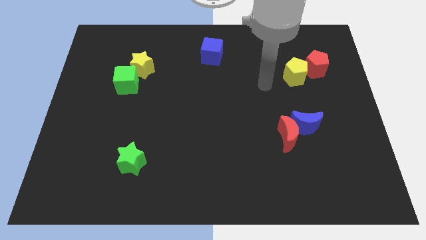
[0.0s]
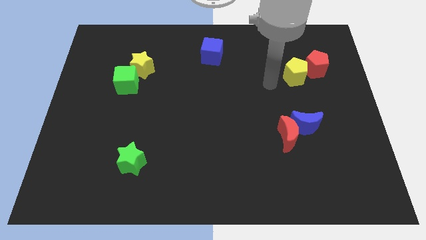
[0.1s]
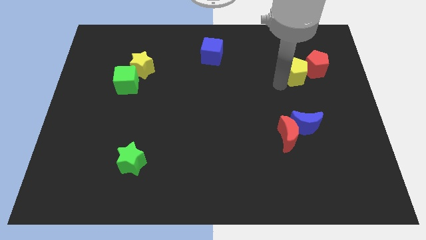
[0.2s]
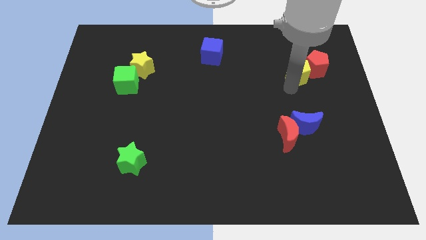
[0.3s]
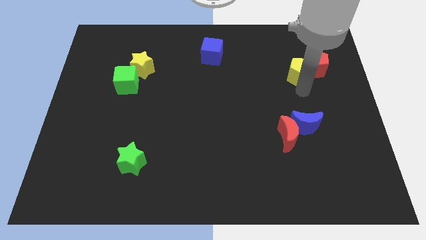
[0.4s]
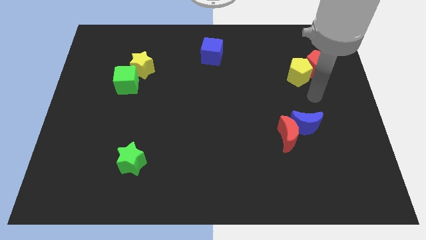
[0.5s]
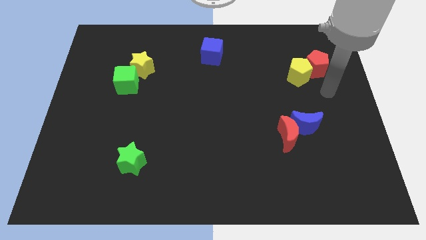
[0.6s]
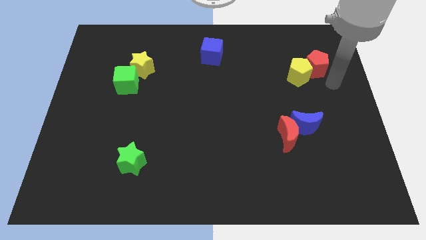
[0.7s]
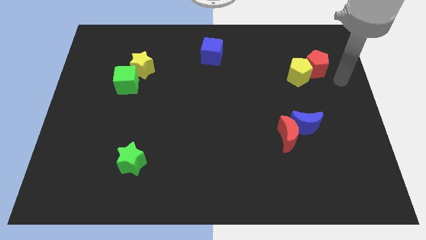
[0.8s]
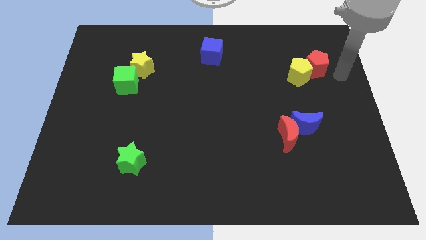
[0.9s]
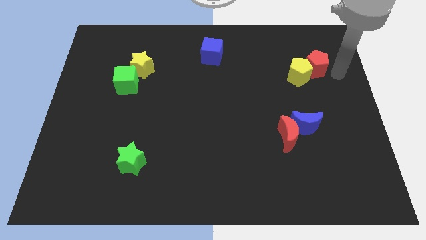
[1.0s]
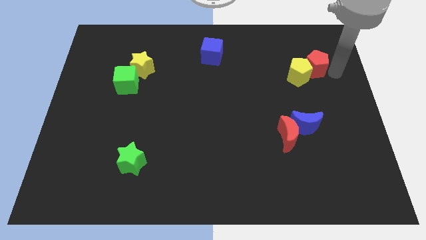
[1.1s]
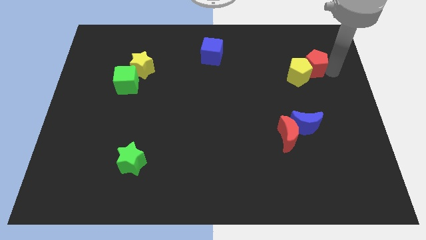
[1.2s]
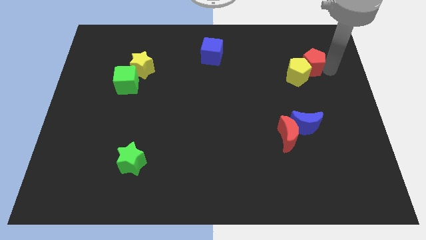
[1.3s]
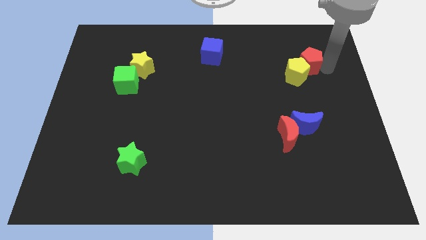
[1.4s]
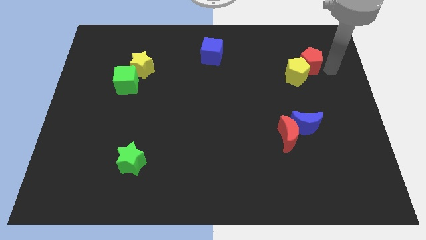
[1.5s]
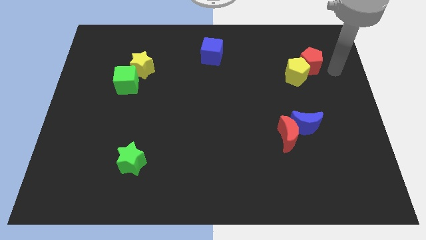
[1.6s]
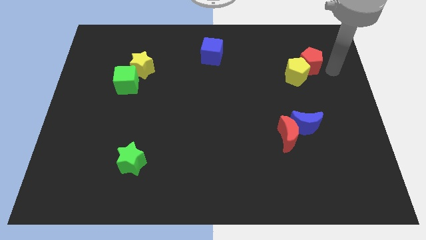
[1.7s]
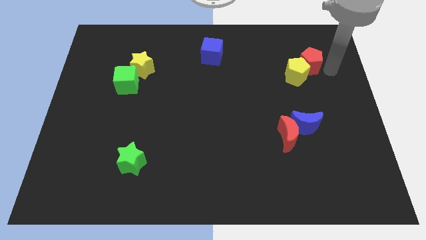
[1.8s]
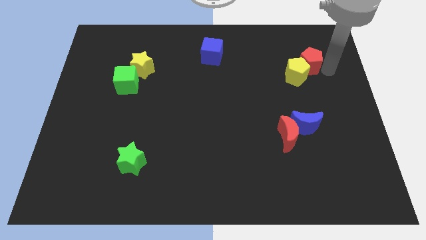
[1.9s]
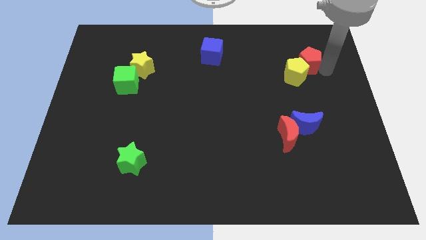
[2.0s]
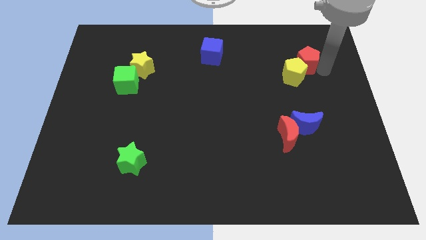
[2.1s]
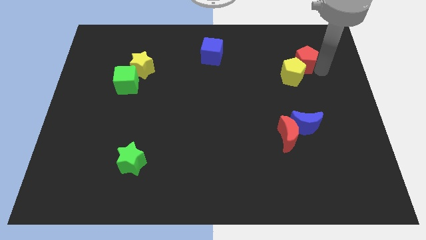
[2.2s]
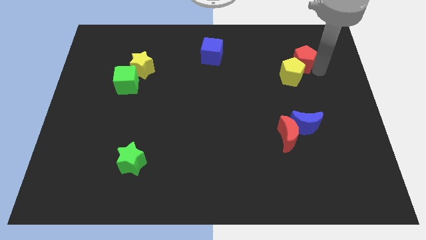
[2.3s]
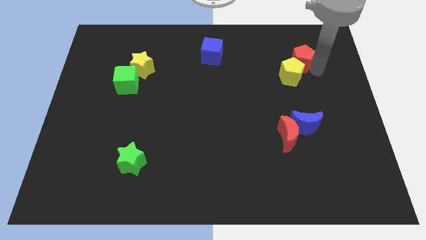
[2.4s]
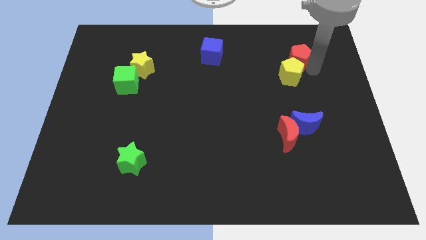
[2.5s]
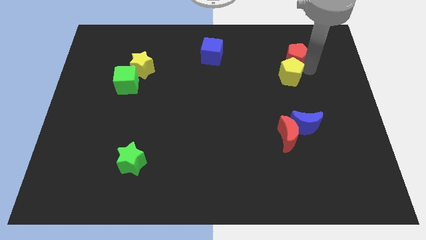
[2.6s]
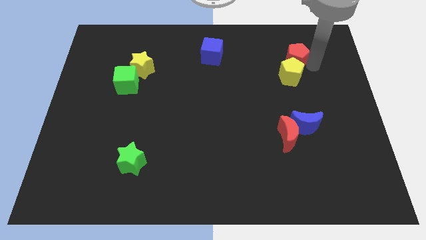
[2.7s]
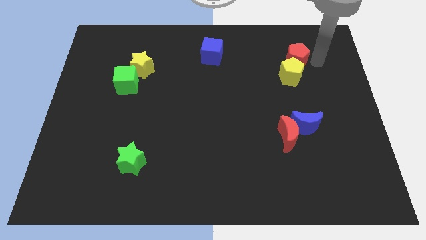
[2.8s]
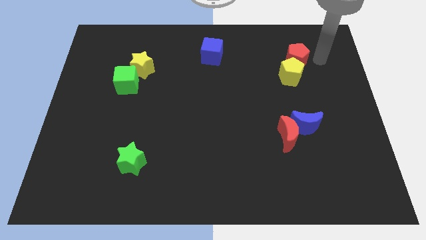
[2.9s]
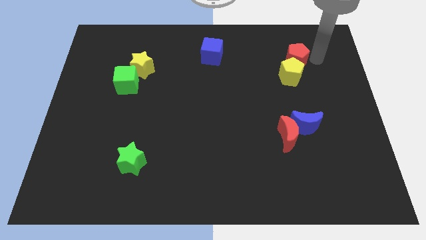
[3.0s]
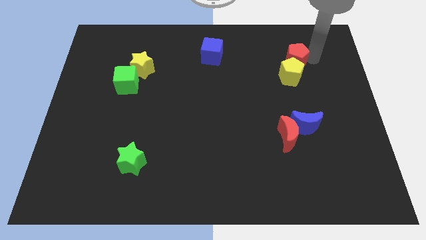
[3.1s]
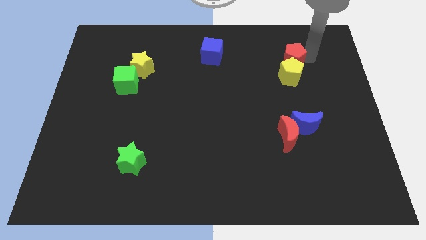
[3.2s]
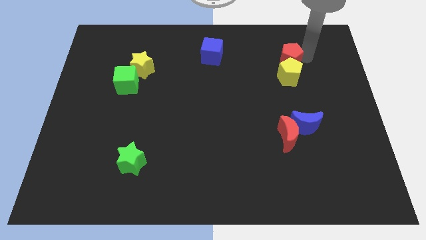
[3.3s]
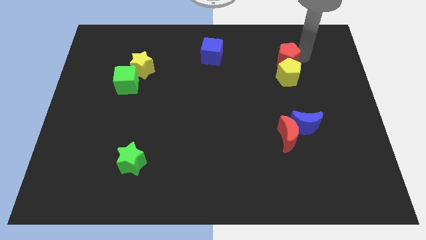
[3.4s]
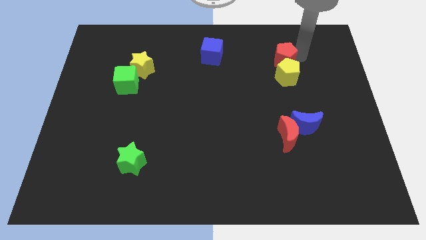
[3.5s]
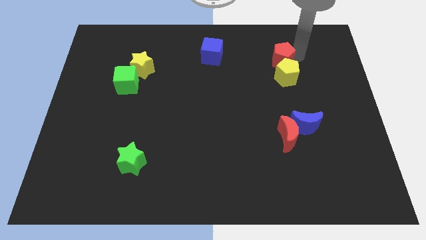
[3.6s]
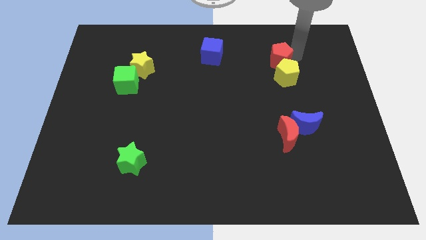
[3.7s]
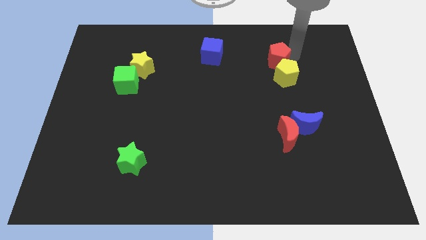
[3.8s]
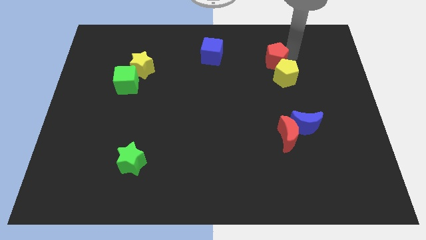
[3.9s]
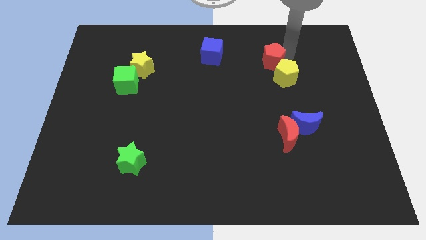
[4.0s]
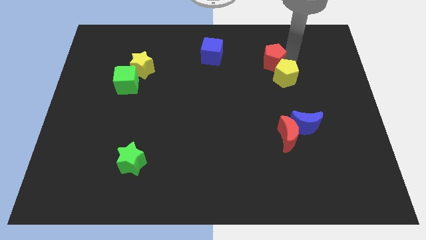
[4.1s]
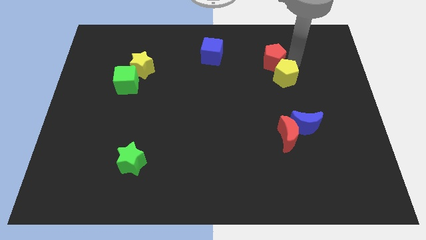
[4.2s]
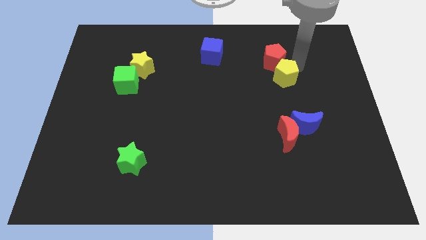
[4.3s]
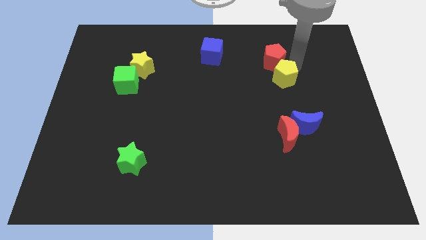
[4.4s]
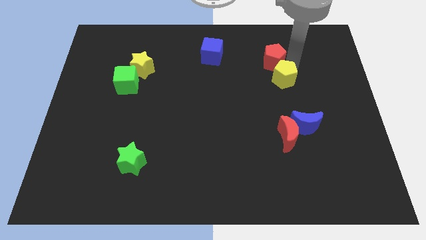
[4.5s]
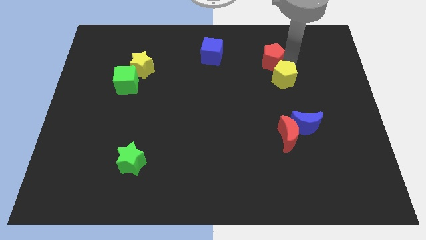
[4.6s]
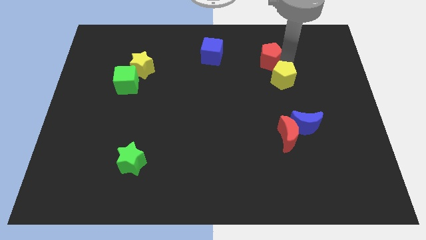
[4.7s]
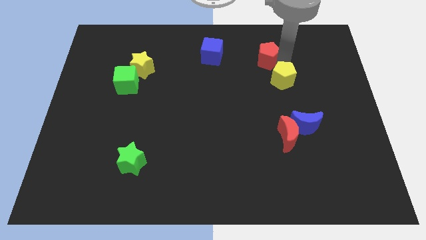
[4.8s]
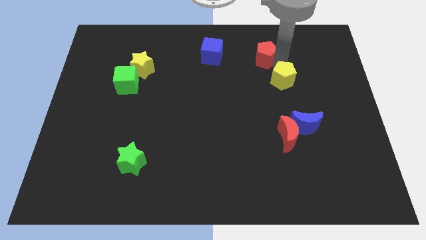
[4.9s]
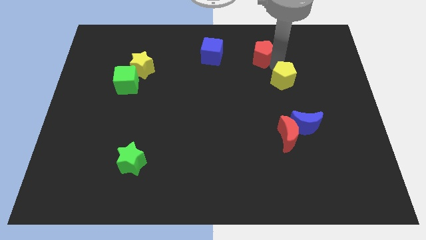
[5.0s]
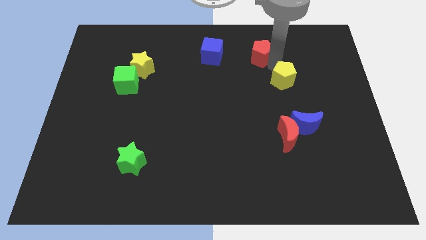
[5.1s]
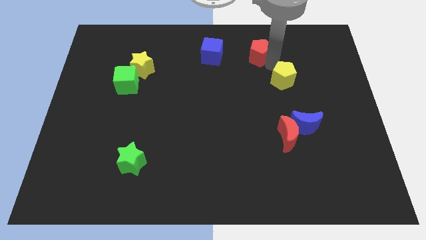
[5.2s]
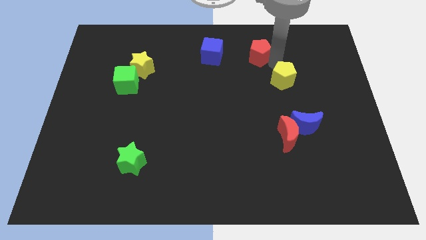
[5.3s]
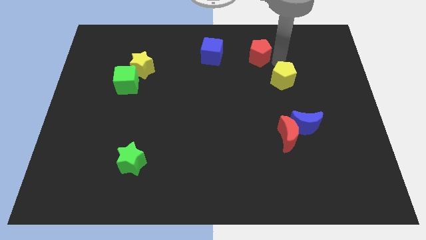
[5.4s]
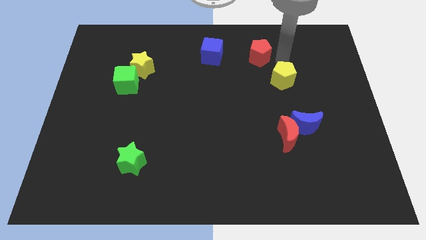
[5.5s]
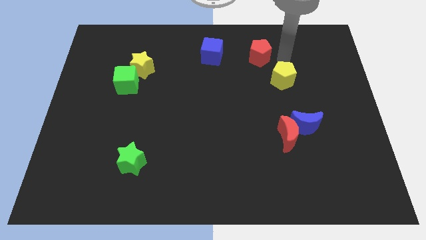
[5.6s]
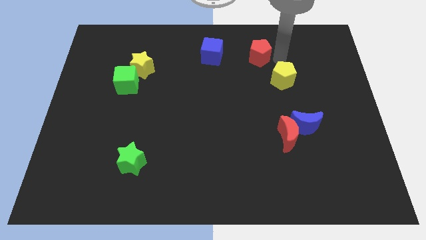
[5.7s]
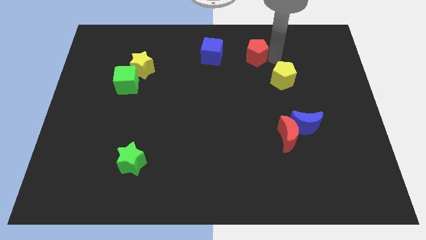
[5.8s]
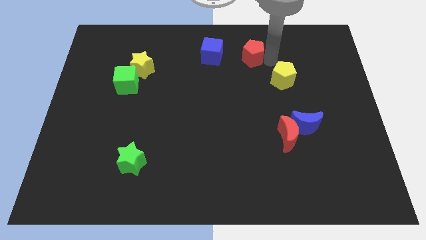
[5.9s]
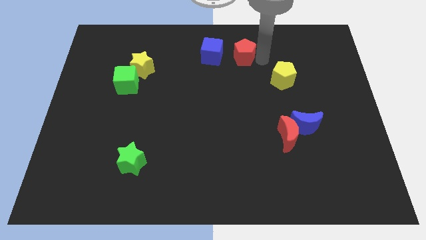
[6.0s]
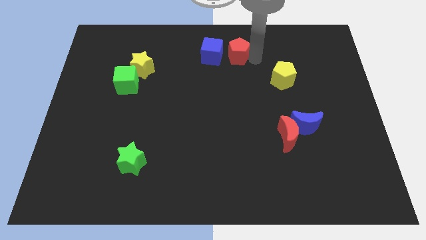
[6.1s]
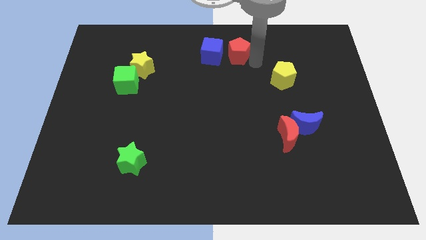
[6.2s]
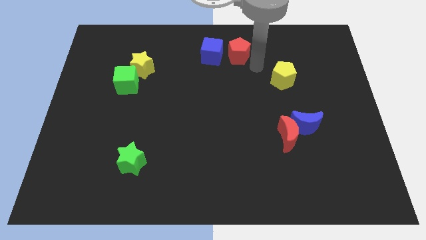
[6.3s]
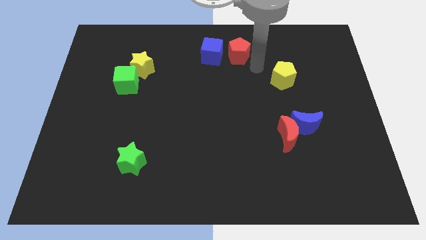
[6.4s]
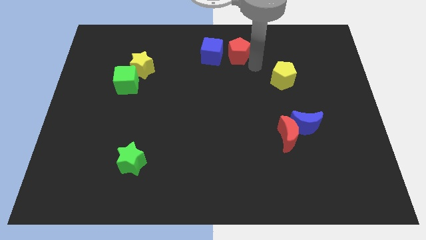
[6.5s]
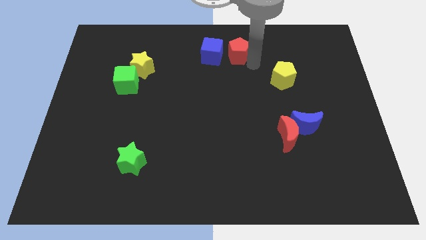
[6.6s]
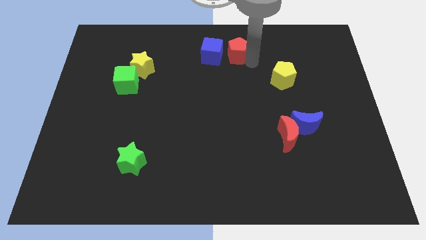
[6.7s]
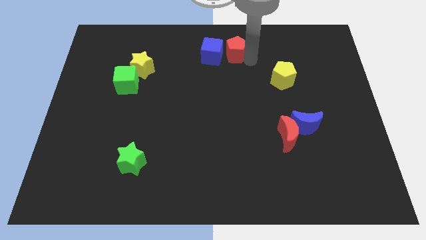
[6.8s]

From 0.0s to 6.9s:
push the red pentagon to the top

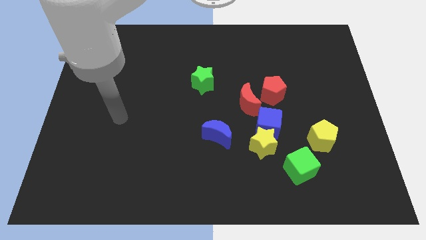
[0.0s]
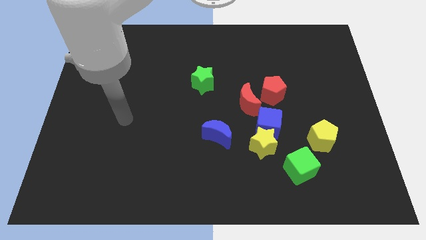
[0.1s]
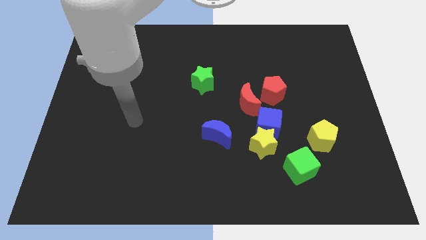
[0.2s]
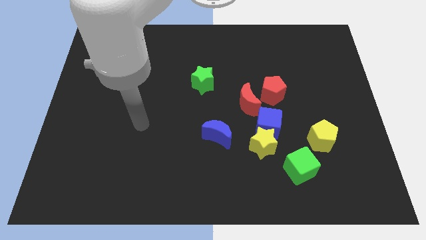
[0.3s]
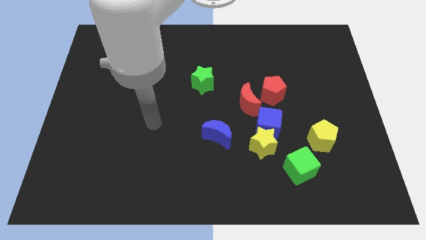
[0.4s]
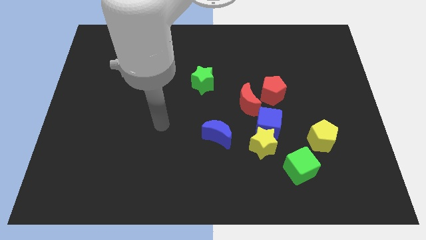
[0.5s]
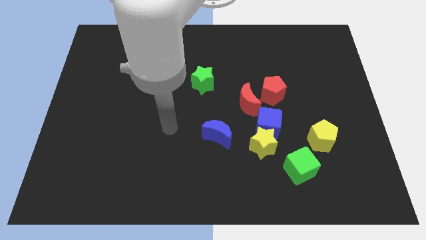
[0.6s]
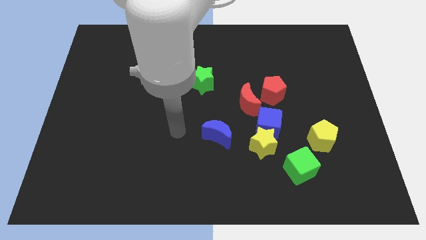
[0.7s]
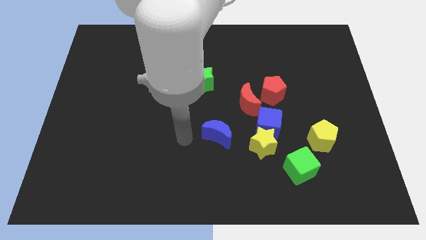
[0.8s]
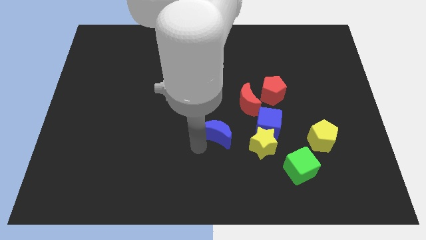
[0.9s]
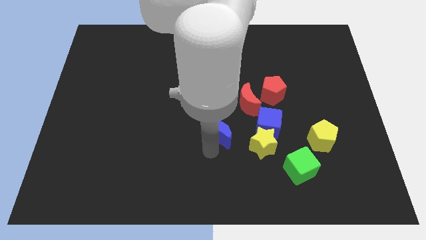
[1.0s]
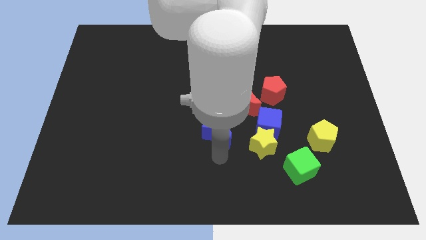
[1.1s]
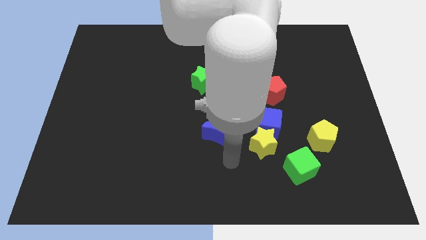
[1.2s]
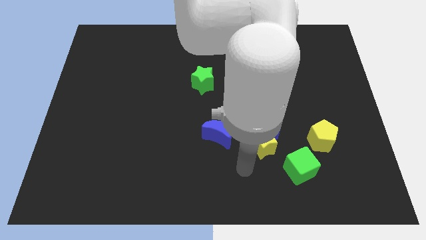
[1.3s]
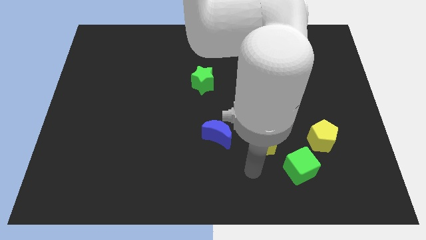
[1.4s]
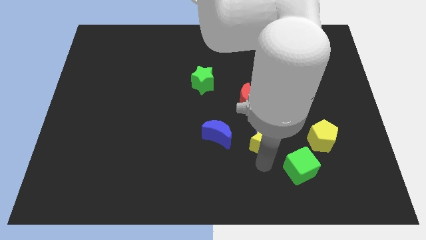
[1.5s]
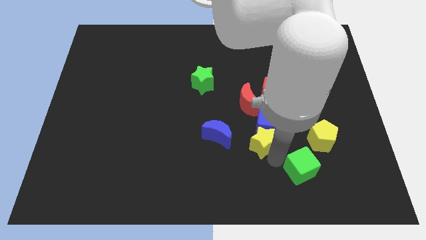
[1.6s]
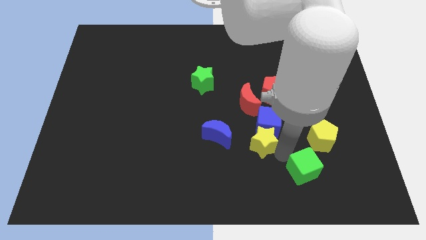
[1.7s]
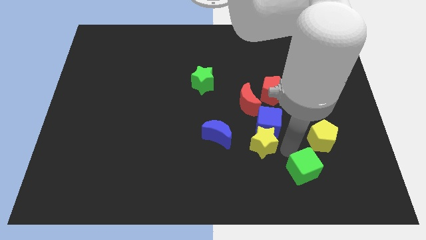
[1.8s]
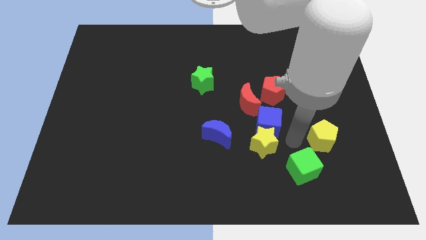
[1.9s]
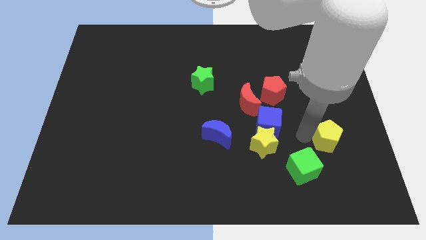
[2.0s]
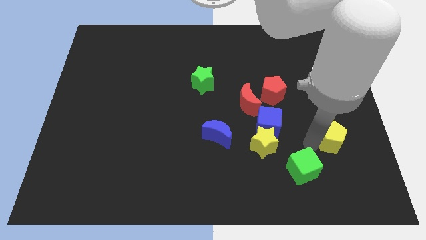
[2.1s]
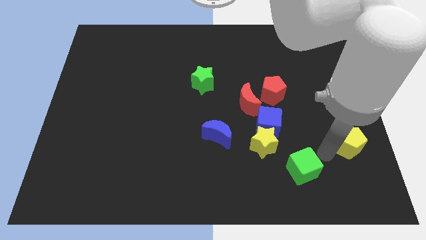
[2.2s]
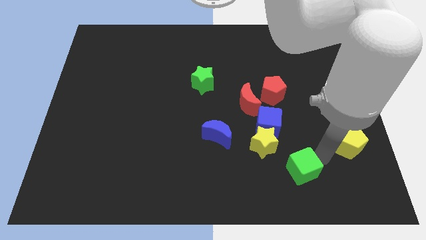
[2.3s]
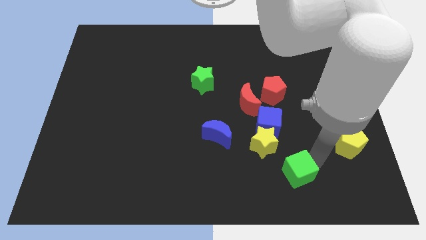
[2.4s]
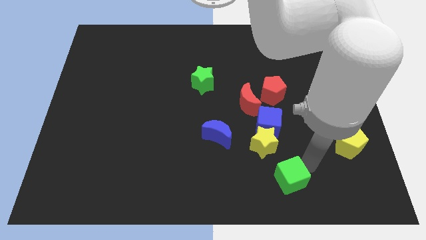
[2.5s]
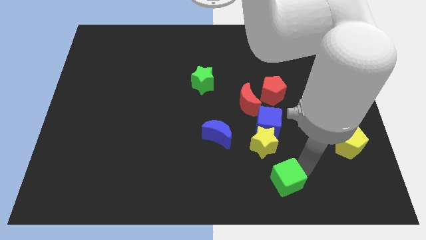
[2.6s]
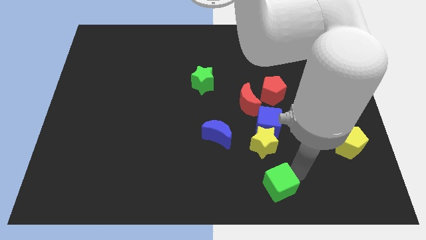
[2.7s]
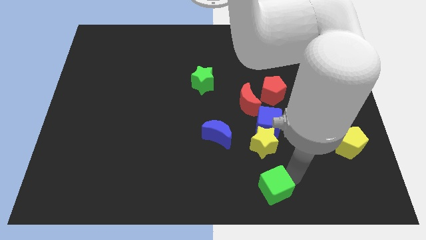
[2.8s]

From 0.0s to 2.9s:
push the green cube to the bottom side
